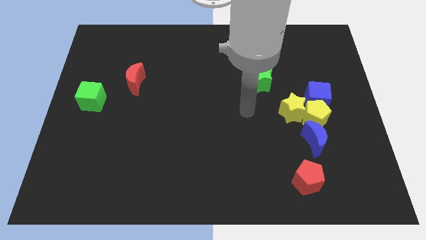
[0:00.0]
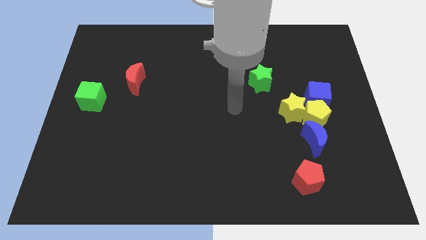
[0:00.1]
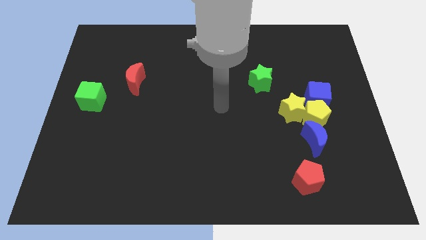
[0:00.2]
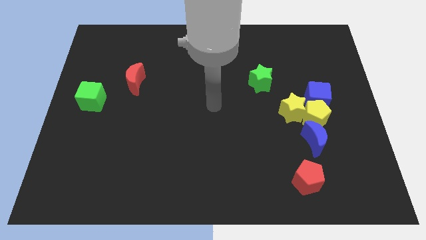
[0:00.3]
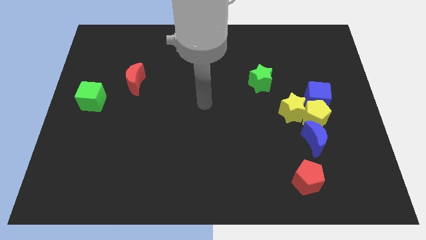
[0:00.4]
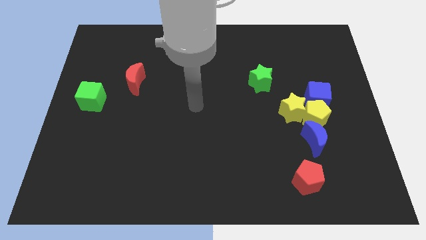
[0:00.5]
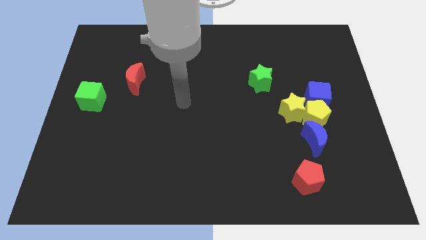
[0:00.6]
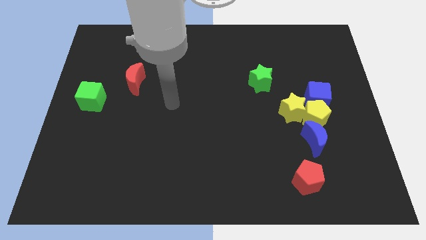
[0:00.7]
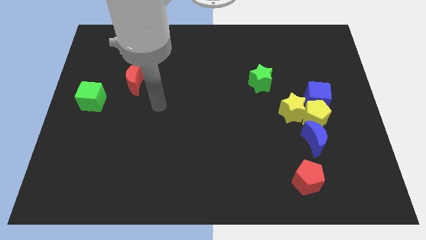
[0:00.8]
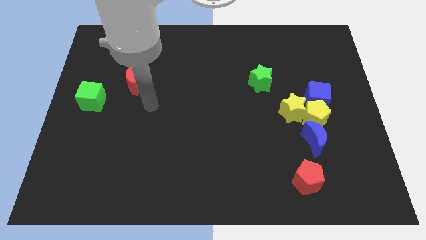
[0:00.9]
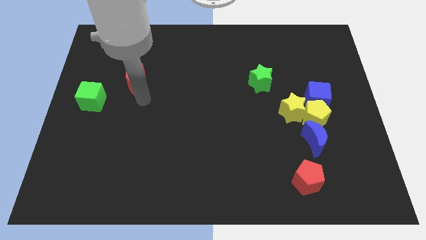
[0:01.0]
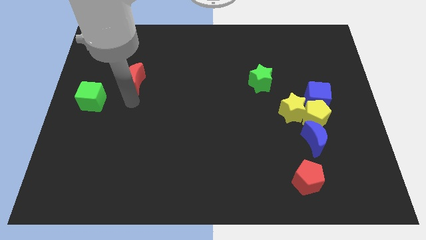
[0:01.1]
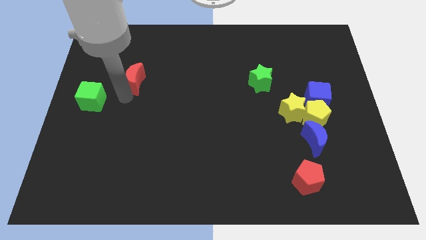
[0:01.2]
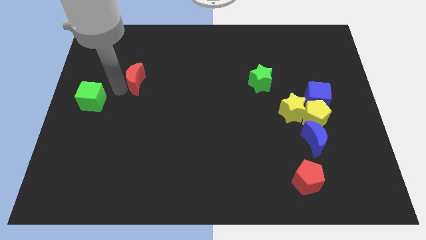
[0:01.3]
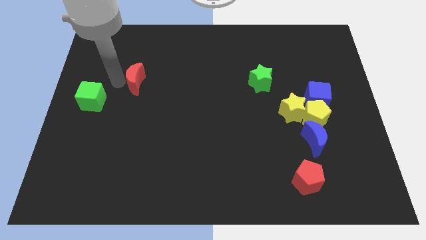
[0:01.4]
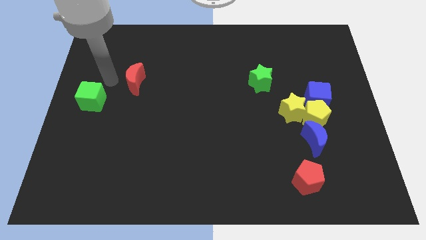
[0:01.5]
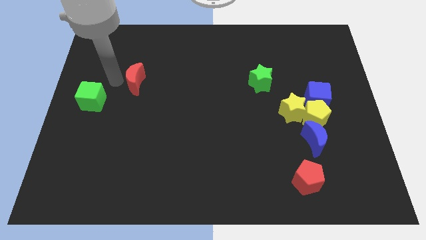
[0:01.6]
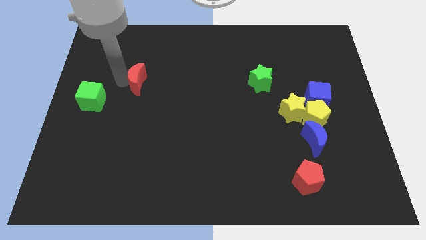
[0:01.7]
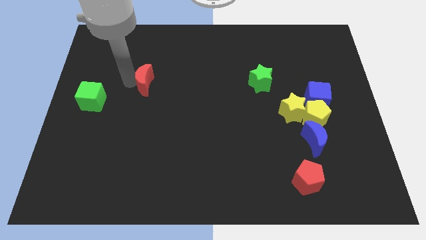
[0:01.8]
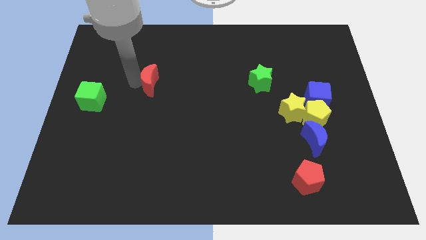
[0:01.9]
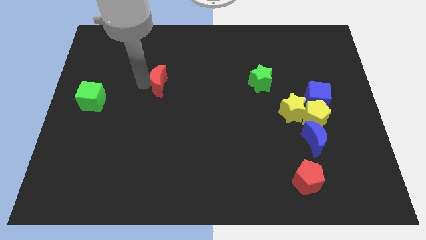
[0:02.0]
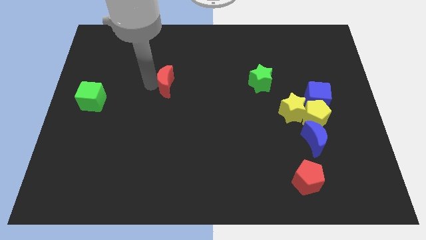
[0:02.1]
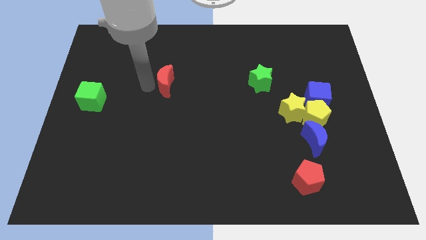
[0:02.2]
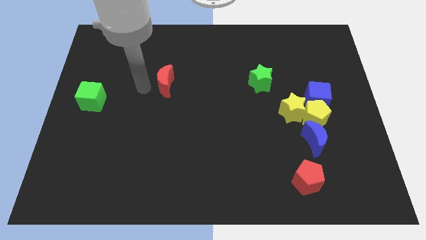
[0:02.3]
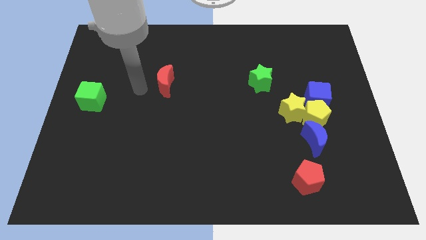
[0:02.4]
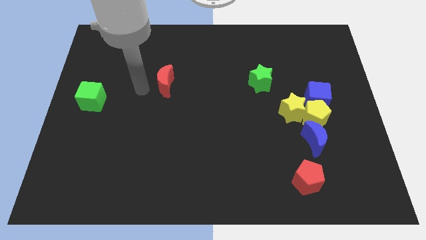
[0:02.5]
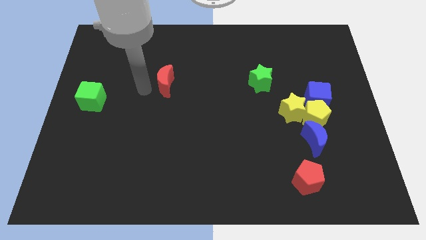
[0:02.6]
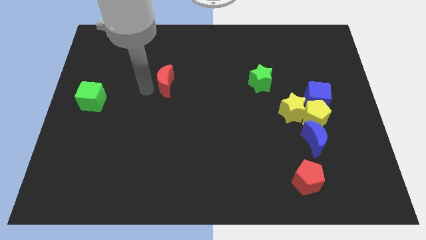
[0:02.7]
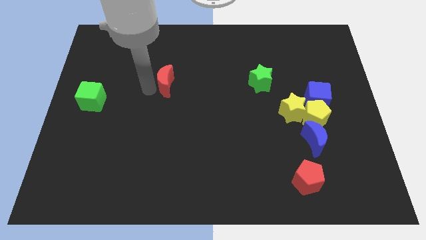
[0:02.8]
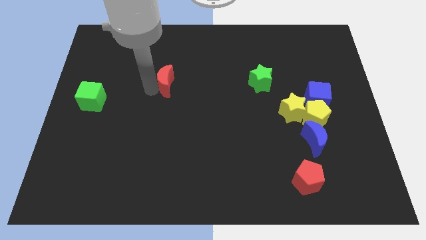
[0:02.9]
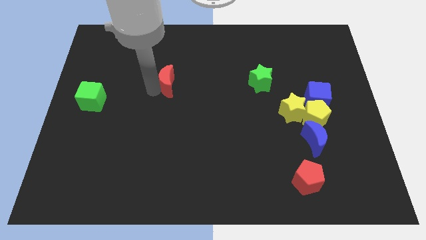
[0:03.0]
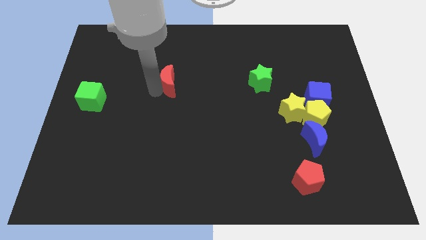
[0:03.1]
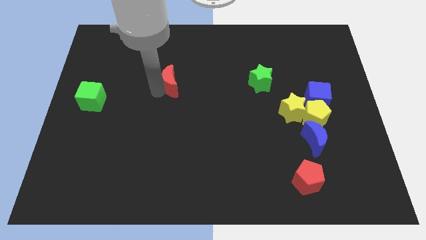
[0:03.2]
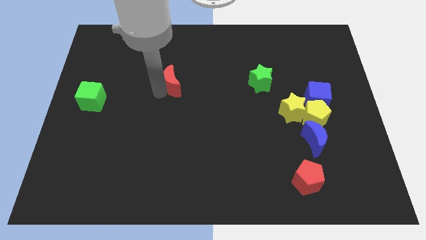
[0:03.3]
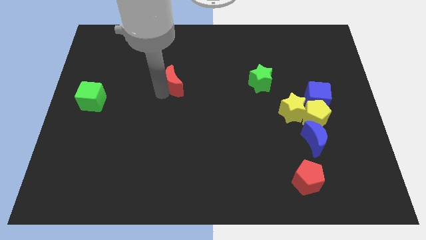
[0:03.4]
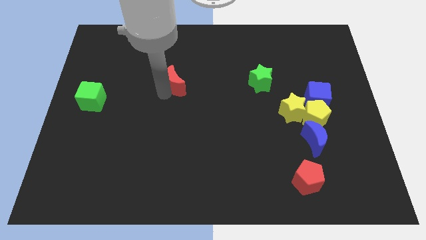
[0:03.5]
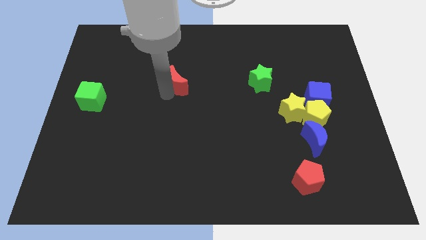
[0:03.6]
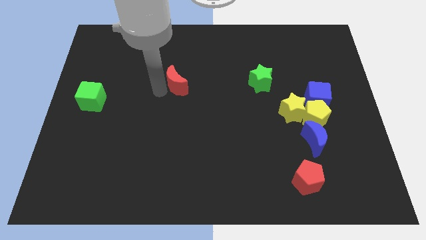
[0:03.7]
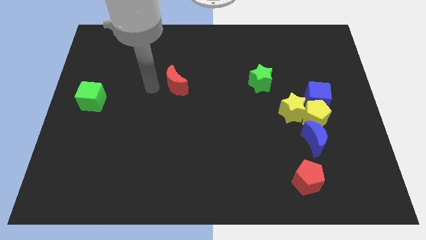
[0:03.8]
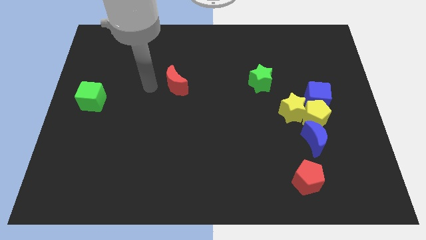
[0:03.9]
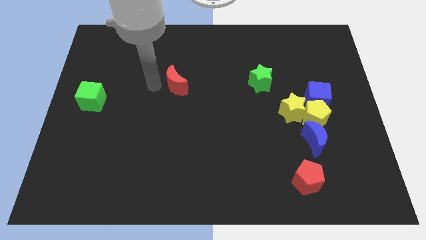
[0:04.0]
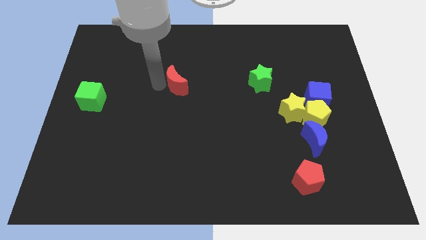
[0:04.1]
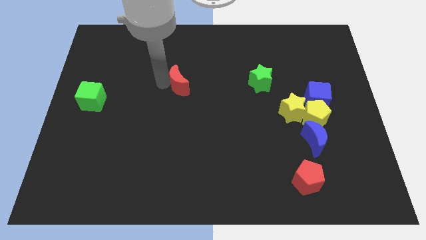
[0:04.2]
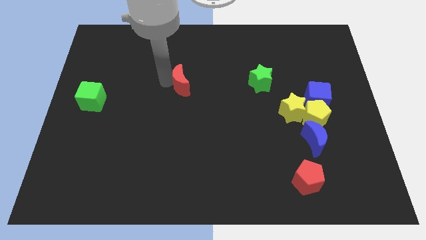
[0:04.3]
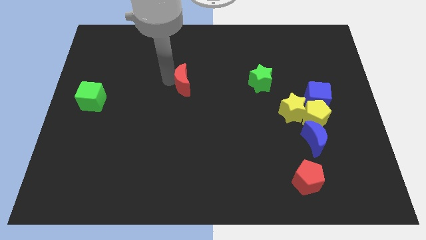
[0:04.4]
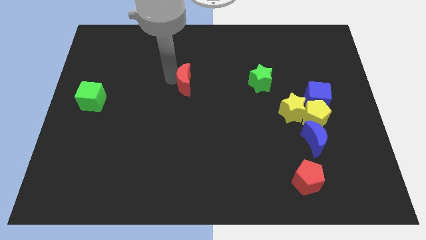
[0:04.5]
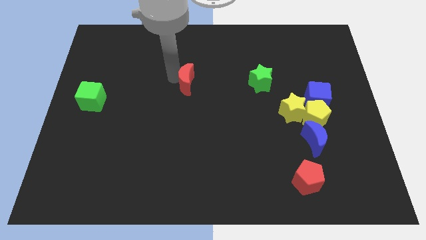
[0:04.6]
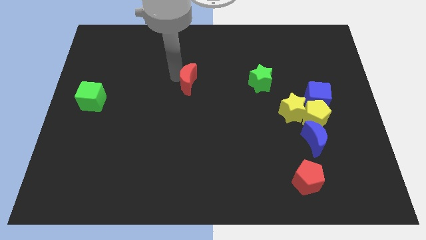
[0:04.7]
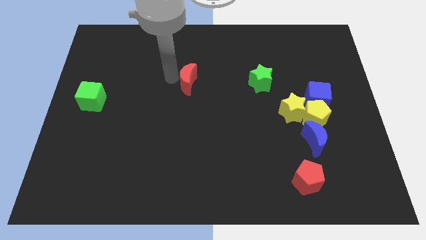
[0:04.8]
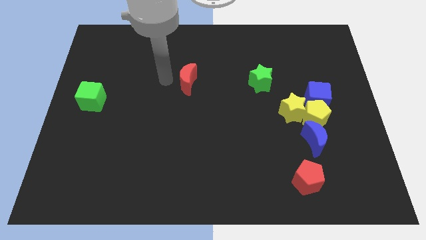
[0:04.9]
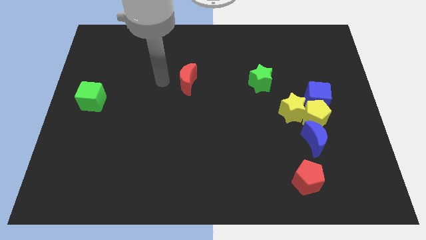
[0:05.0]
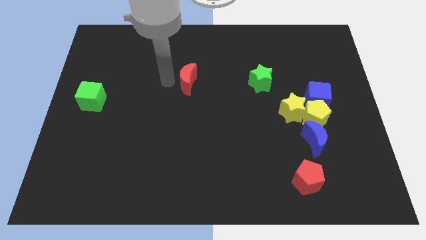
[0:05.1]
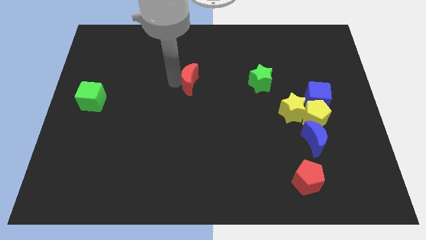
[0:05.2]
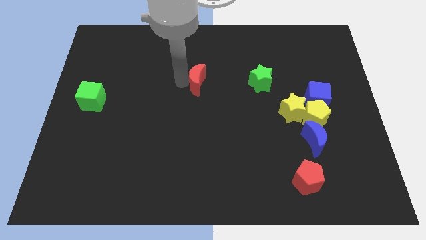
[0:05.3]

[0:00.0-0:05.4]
push the red moon left of the green star

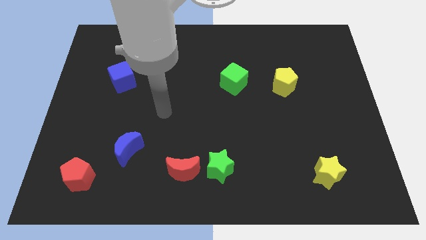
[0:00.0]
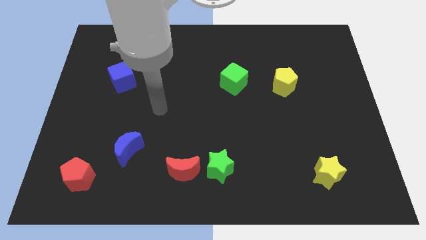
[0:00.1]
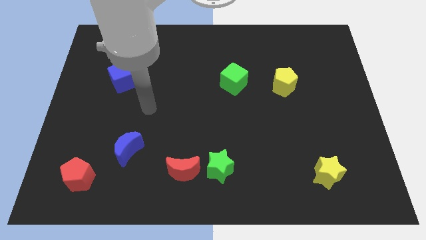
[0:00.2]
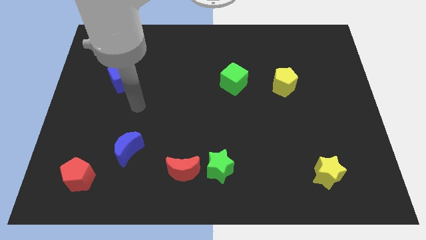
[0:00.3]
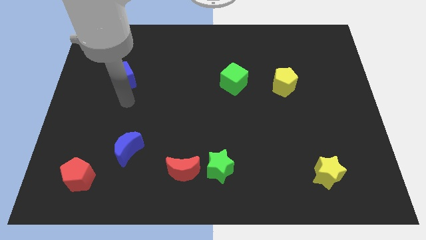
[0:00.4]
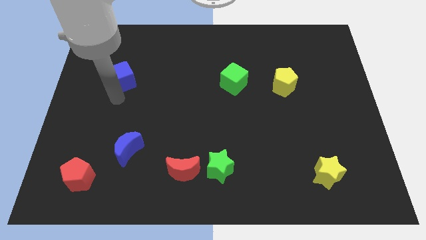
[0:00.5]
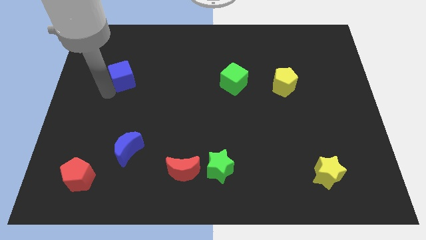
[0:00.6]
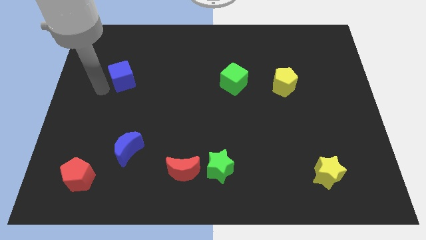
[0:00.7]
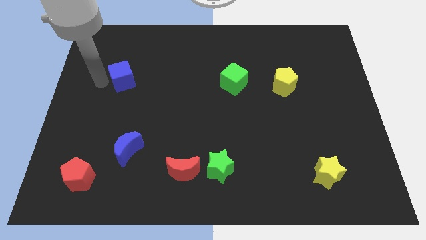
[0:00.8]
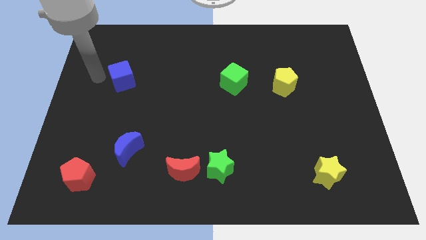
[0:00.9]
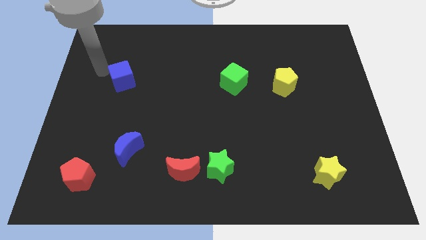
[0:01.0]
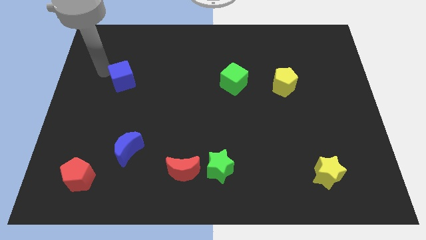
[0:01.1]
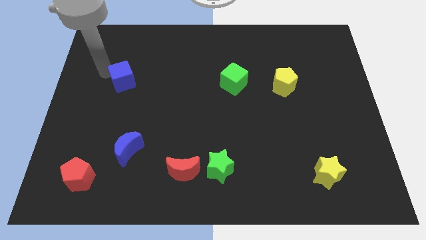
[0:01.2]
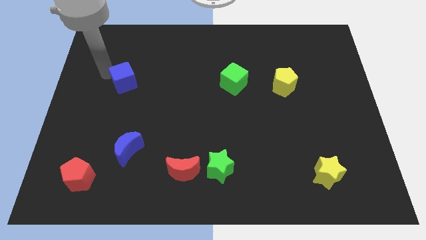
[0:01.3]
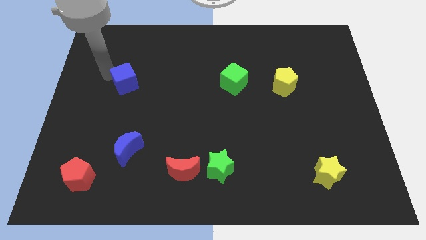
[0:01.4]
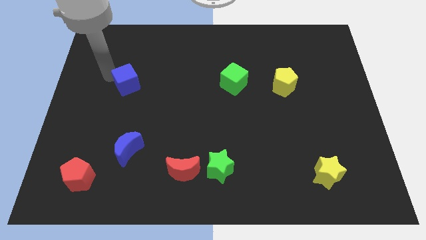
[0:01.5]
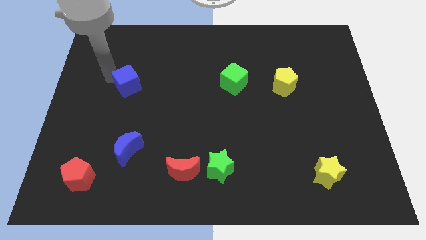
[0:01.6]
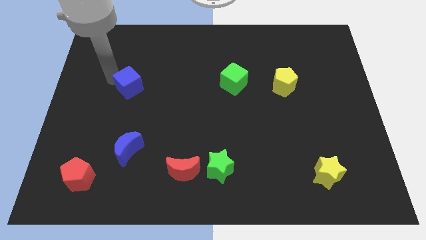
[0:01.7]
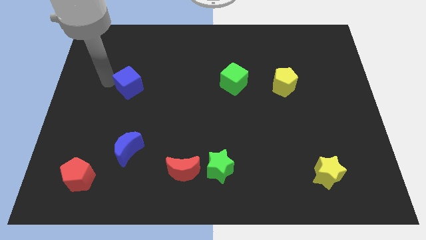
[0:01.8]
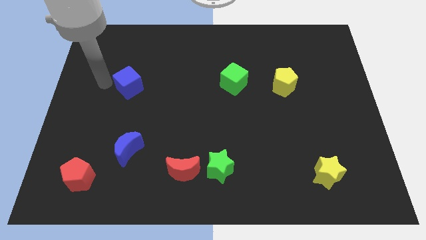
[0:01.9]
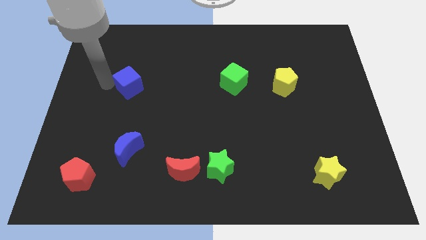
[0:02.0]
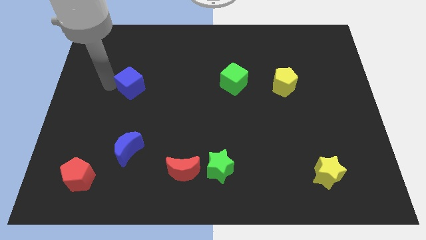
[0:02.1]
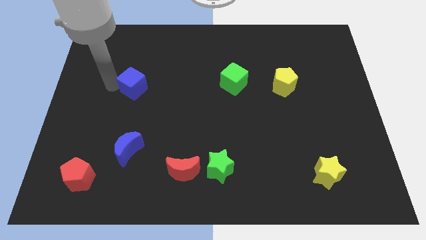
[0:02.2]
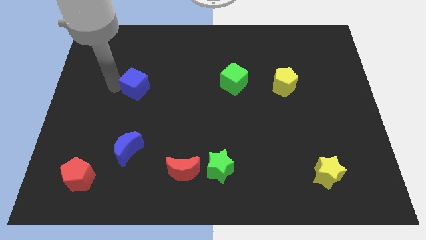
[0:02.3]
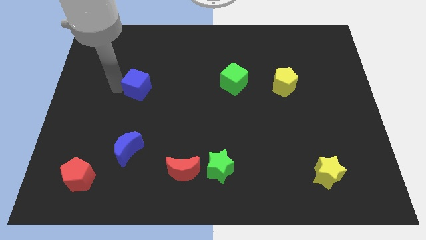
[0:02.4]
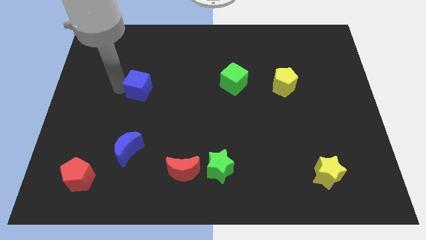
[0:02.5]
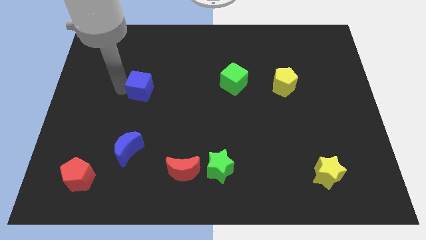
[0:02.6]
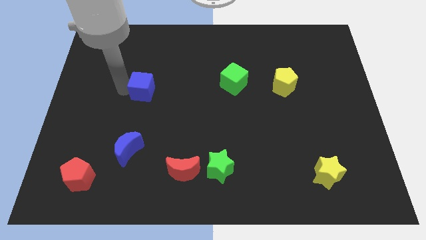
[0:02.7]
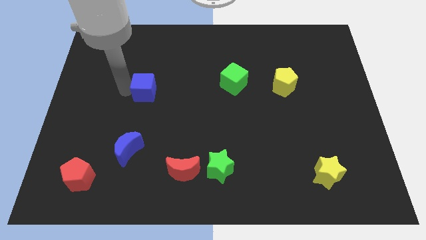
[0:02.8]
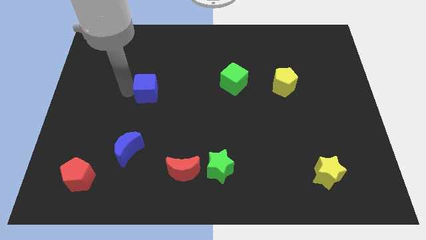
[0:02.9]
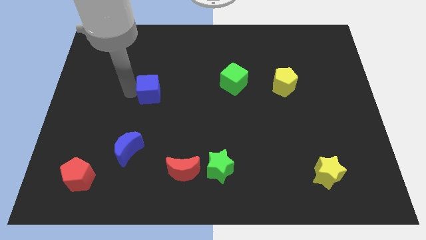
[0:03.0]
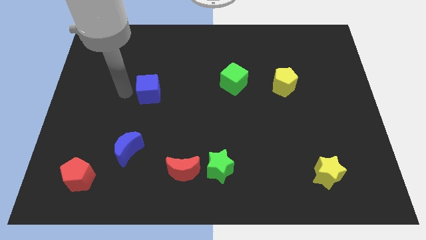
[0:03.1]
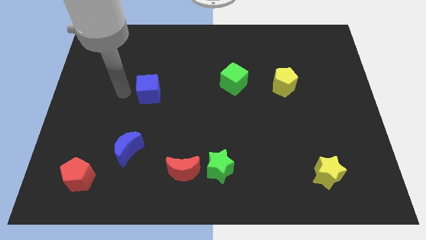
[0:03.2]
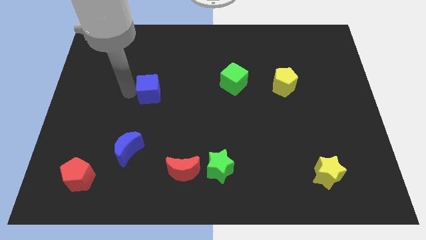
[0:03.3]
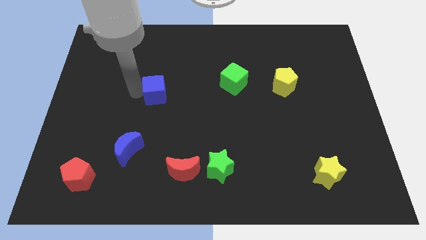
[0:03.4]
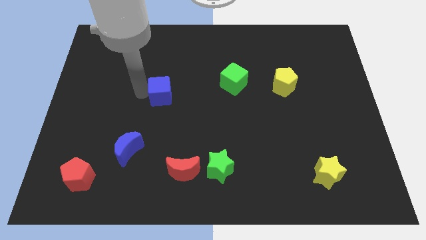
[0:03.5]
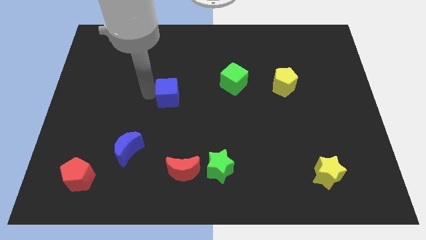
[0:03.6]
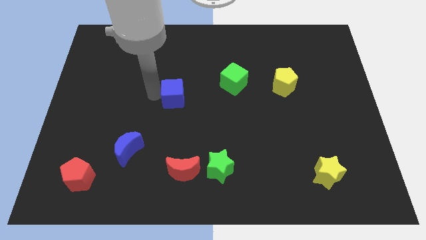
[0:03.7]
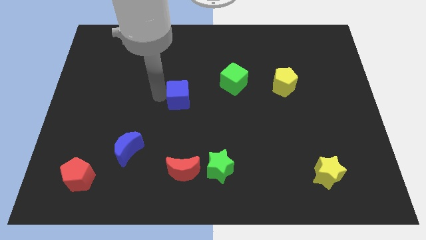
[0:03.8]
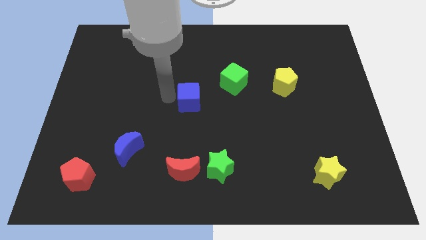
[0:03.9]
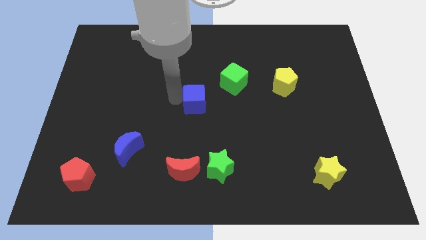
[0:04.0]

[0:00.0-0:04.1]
slide the blue cube to the bottom left of the green cube
